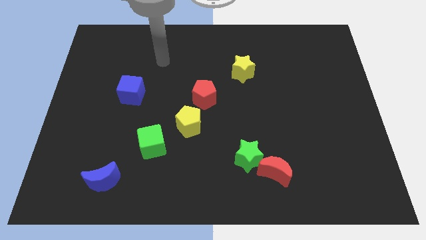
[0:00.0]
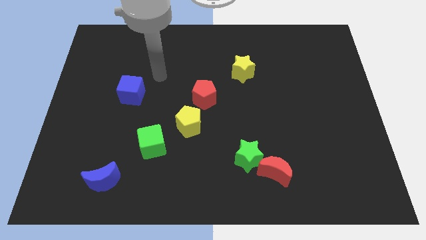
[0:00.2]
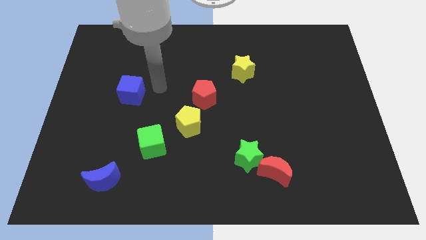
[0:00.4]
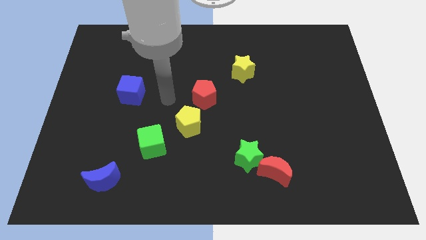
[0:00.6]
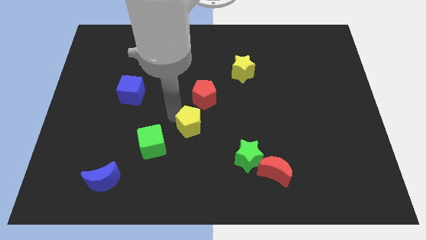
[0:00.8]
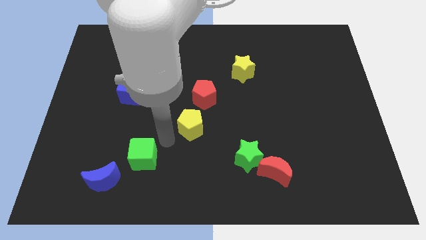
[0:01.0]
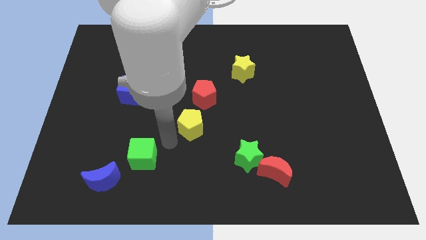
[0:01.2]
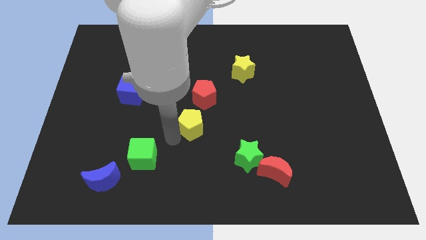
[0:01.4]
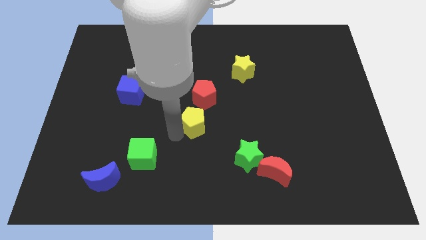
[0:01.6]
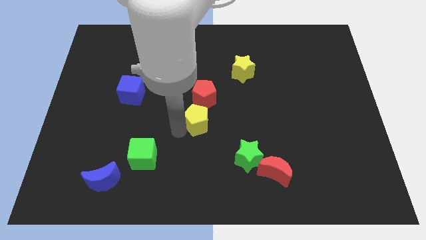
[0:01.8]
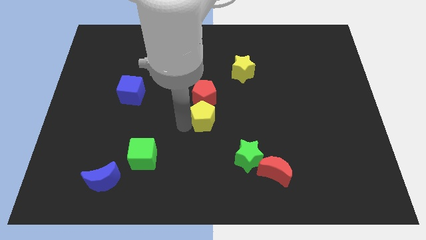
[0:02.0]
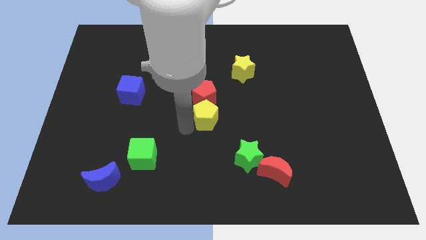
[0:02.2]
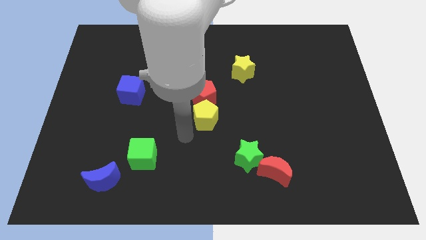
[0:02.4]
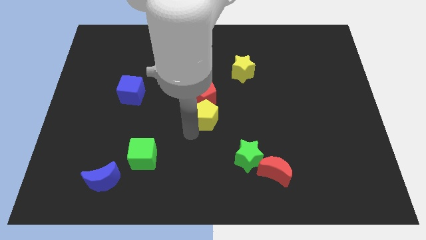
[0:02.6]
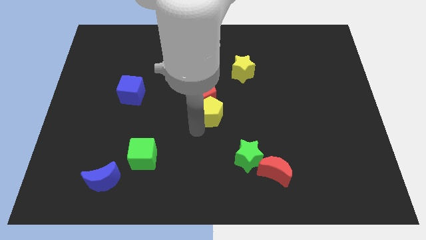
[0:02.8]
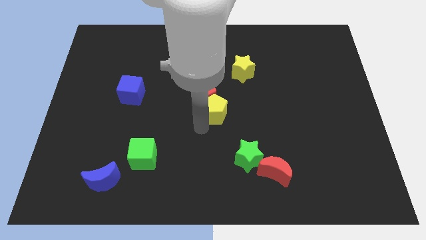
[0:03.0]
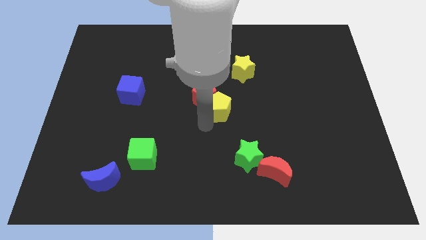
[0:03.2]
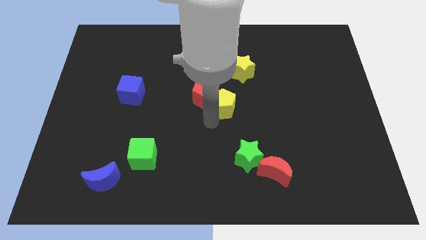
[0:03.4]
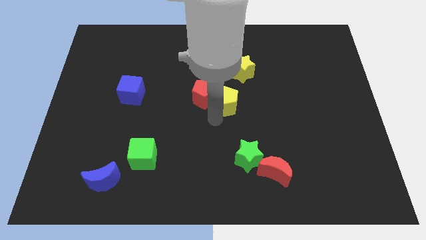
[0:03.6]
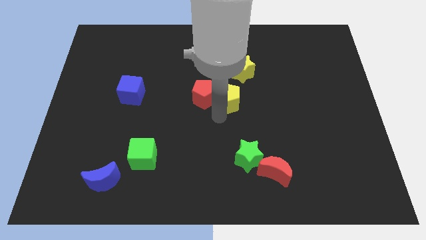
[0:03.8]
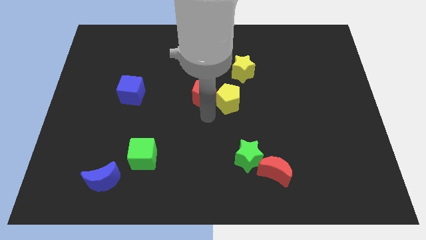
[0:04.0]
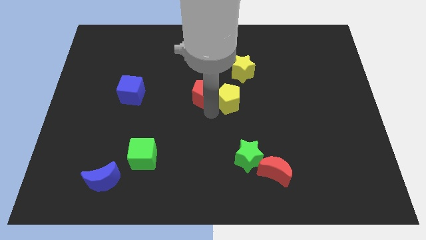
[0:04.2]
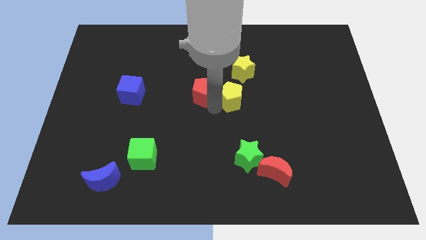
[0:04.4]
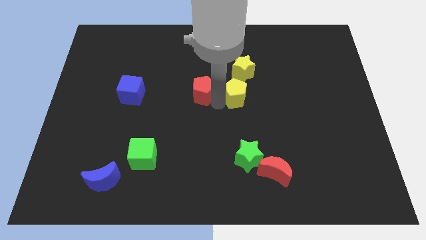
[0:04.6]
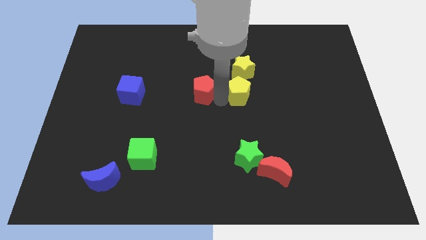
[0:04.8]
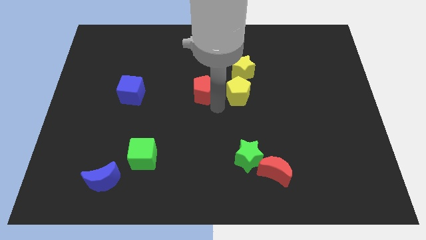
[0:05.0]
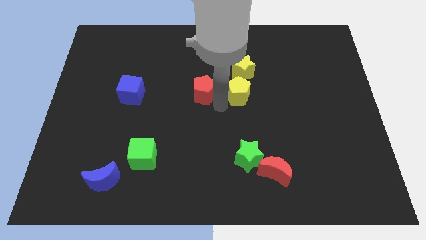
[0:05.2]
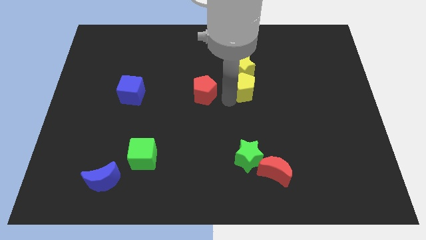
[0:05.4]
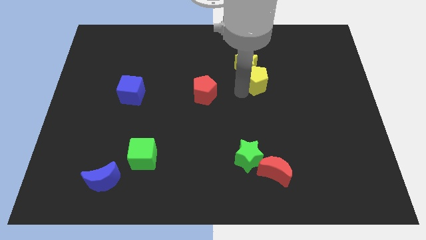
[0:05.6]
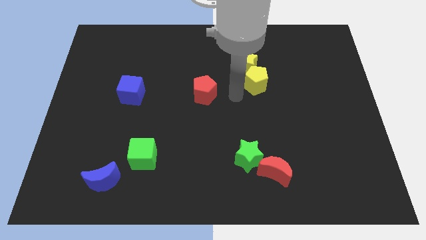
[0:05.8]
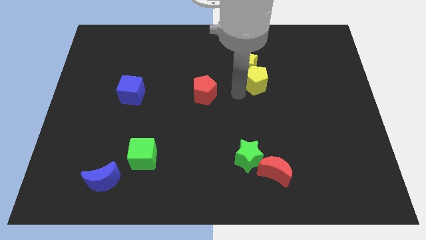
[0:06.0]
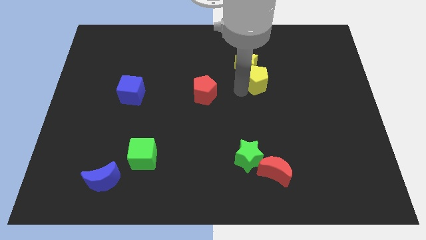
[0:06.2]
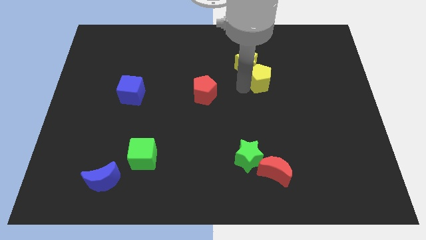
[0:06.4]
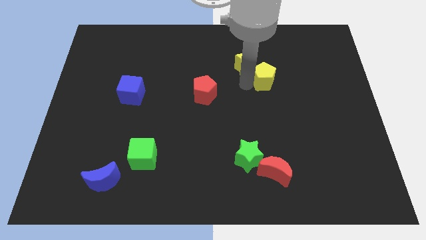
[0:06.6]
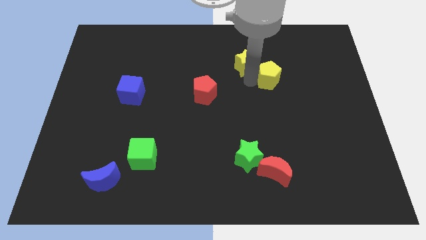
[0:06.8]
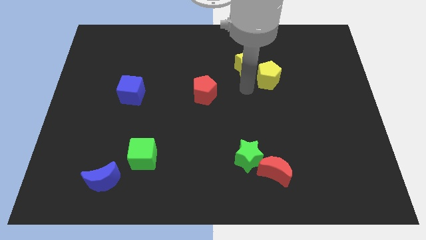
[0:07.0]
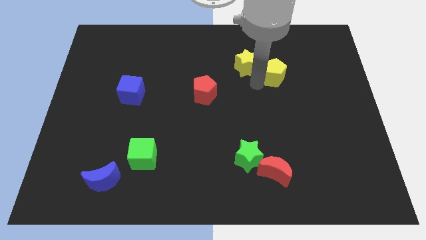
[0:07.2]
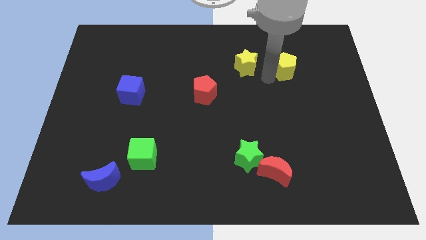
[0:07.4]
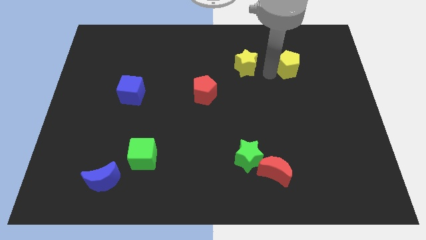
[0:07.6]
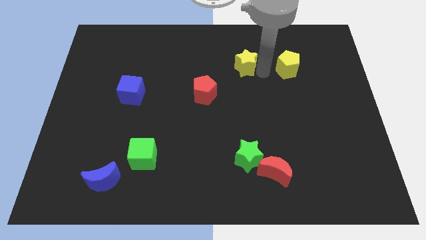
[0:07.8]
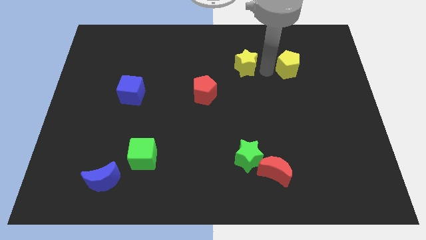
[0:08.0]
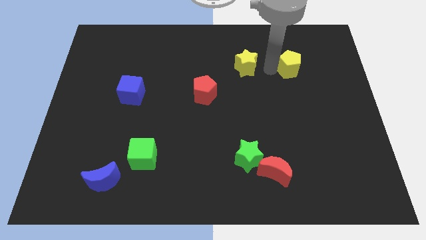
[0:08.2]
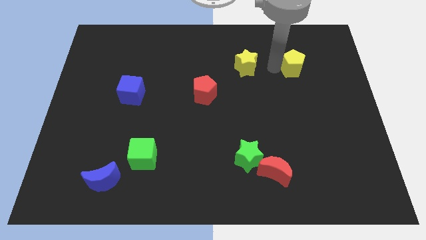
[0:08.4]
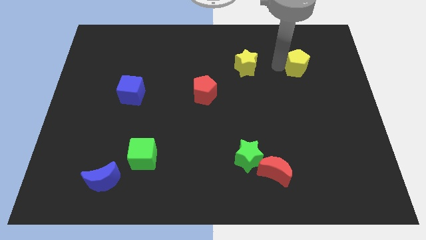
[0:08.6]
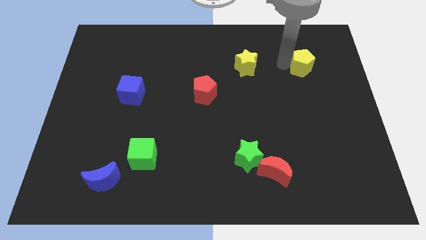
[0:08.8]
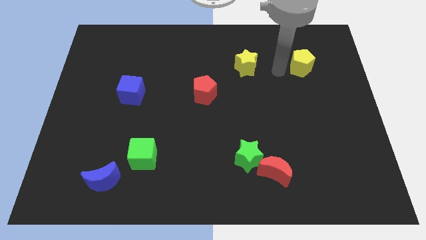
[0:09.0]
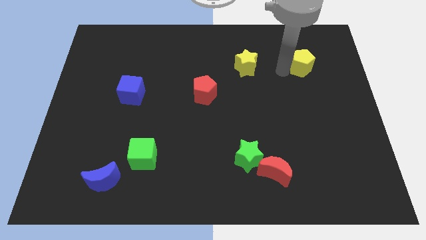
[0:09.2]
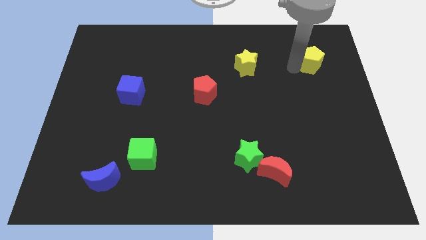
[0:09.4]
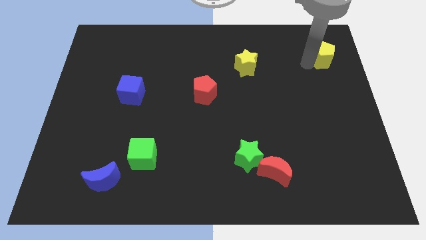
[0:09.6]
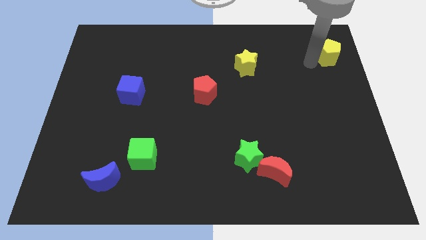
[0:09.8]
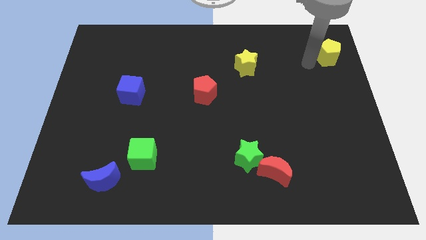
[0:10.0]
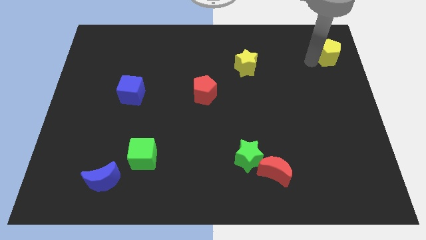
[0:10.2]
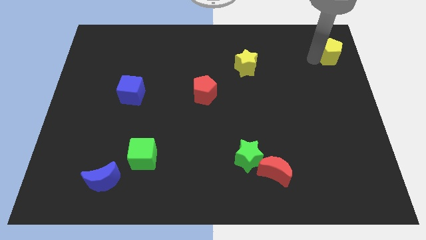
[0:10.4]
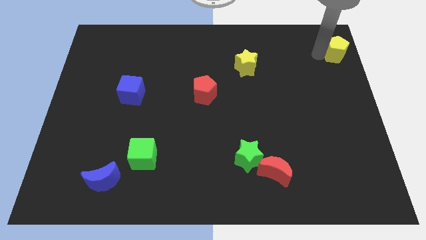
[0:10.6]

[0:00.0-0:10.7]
put the yellow pentagon to the upper right corner
